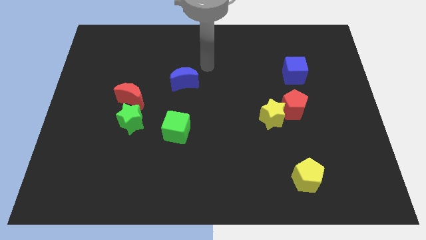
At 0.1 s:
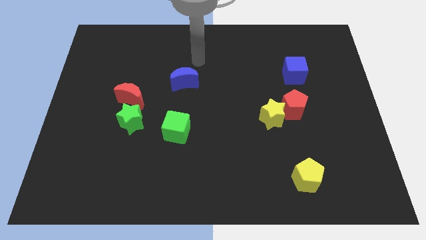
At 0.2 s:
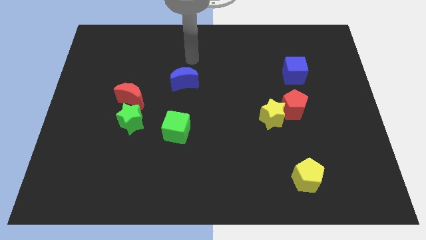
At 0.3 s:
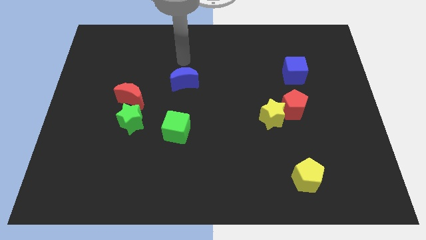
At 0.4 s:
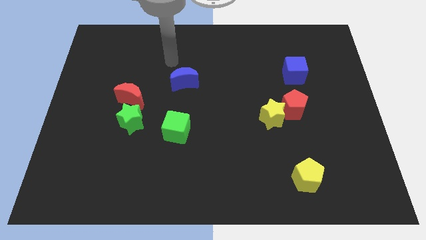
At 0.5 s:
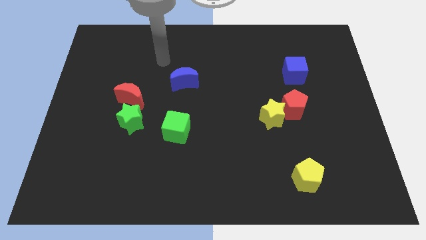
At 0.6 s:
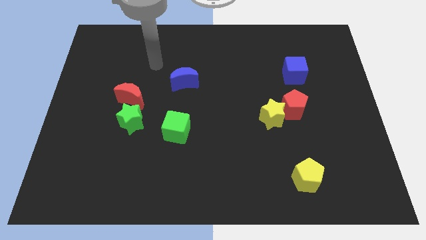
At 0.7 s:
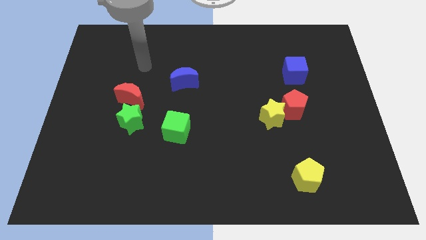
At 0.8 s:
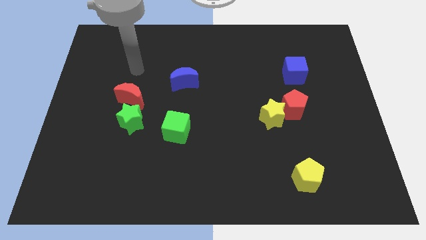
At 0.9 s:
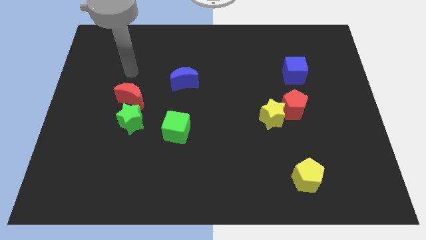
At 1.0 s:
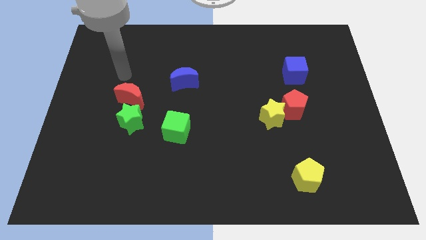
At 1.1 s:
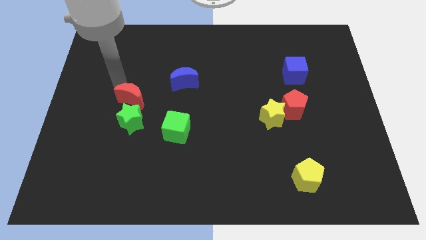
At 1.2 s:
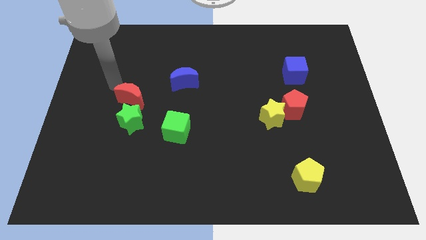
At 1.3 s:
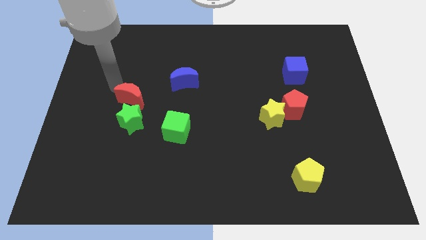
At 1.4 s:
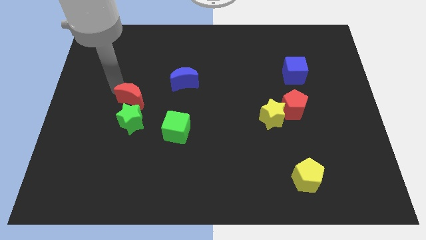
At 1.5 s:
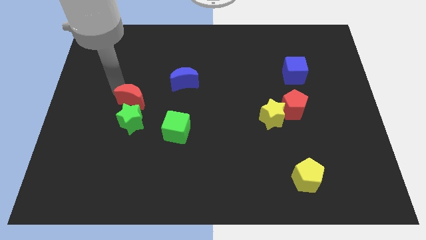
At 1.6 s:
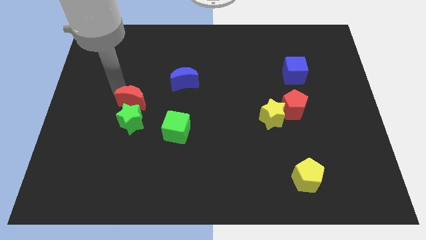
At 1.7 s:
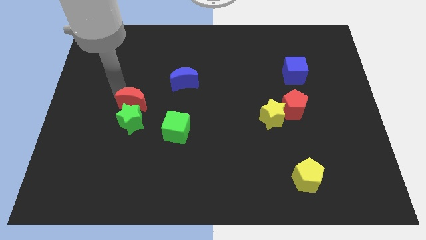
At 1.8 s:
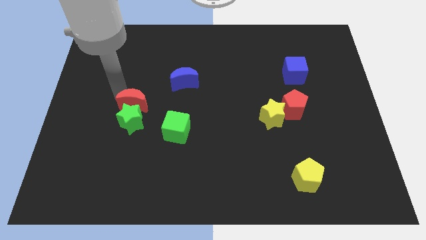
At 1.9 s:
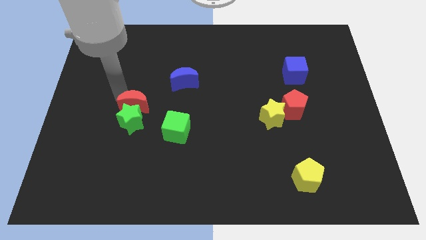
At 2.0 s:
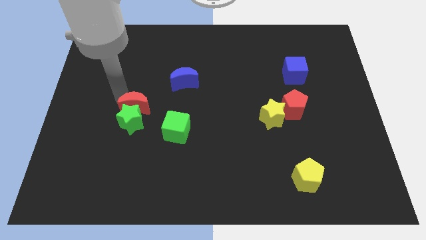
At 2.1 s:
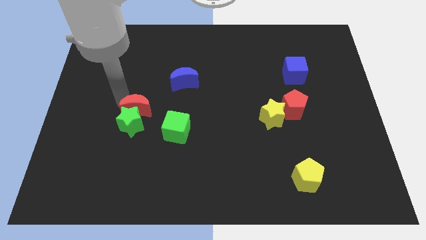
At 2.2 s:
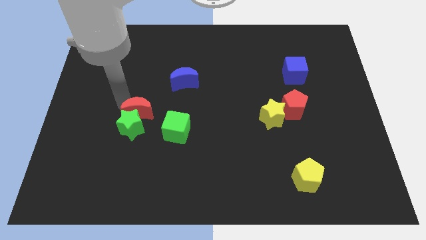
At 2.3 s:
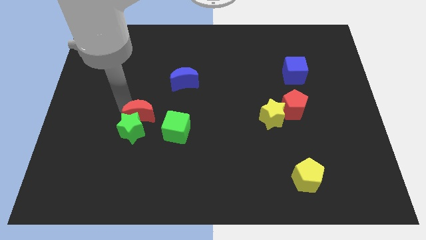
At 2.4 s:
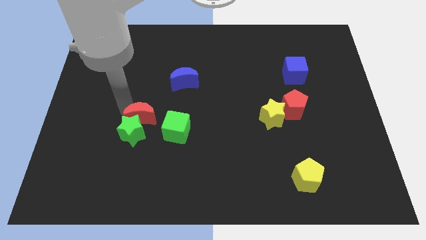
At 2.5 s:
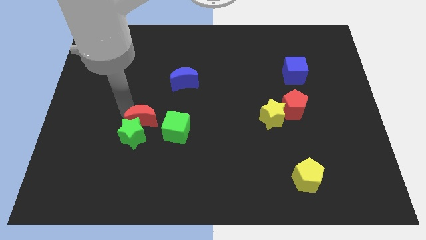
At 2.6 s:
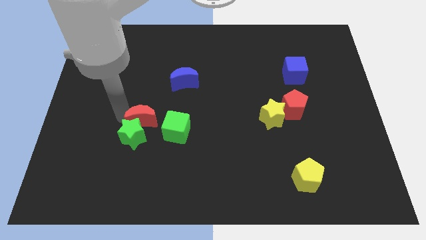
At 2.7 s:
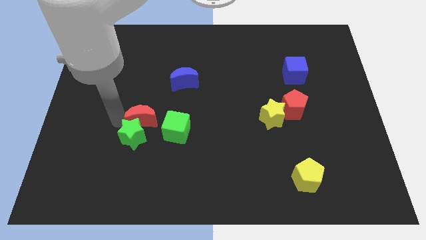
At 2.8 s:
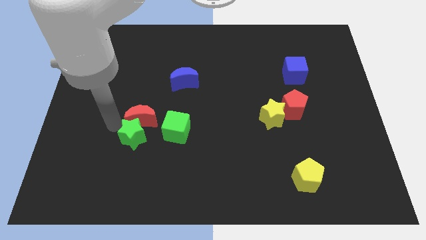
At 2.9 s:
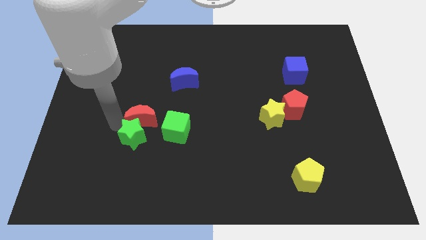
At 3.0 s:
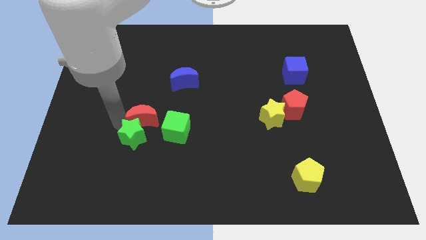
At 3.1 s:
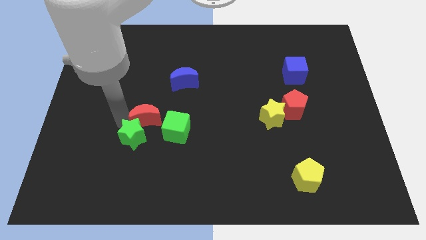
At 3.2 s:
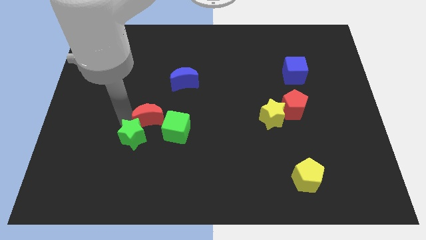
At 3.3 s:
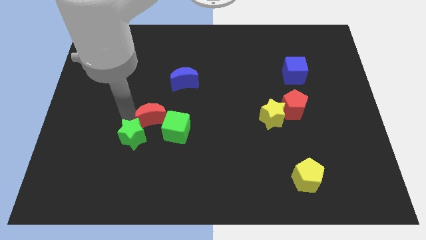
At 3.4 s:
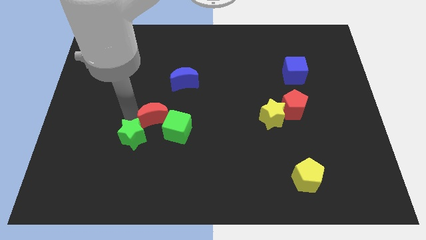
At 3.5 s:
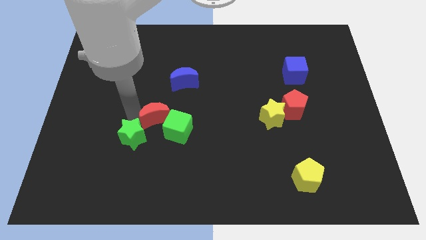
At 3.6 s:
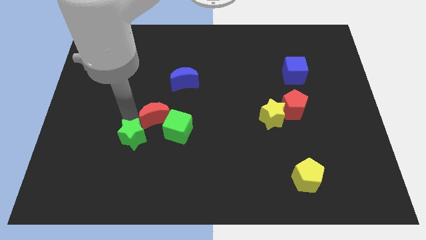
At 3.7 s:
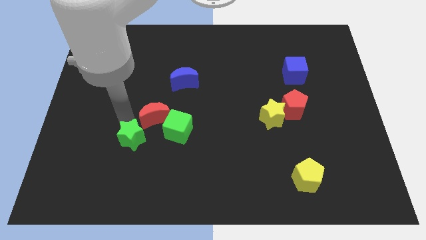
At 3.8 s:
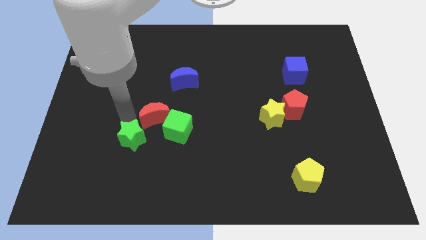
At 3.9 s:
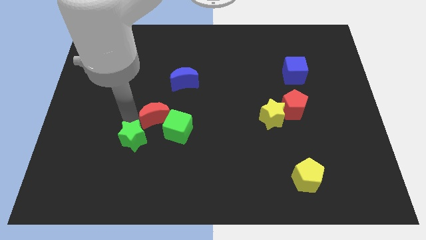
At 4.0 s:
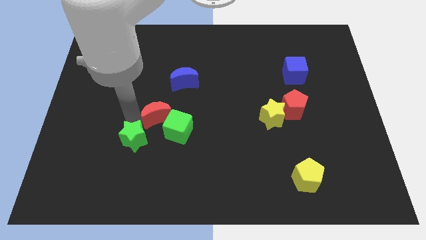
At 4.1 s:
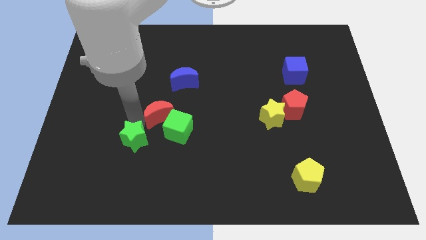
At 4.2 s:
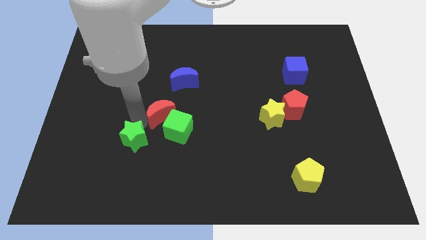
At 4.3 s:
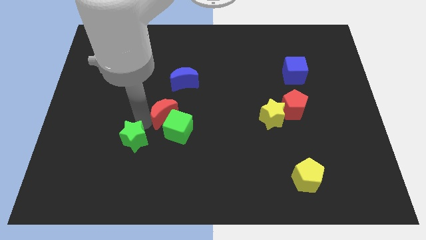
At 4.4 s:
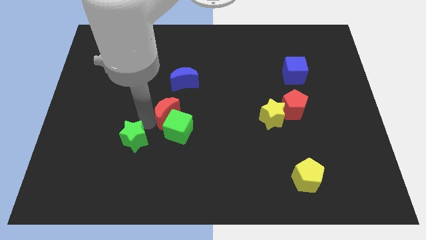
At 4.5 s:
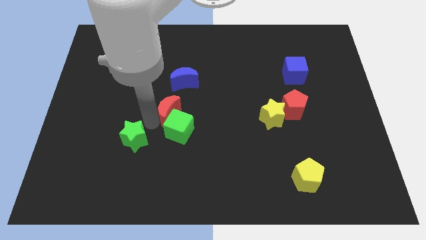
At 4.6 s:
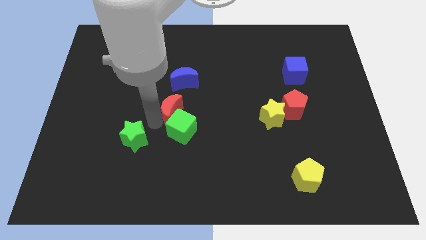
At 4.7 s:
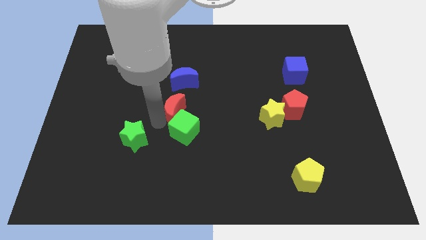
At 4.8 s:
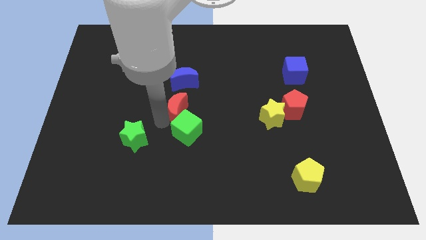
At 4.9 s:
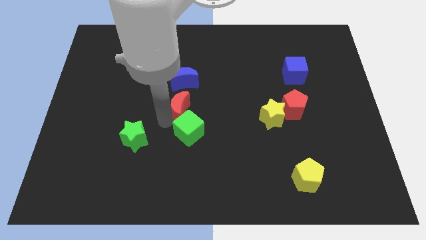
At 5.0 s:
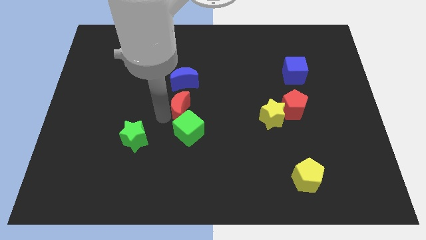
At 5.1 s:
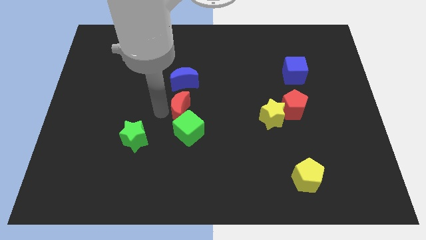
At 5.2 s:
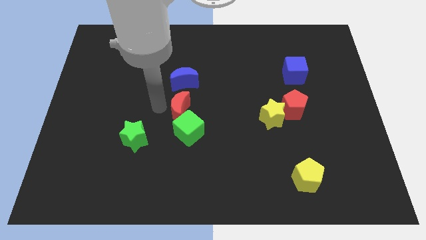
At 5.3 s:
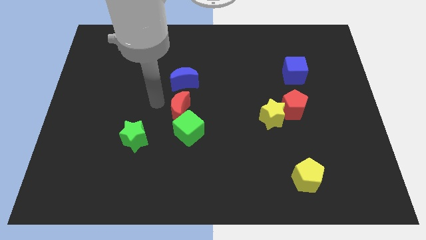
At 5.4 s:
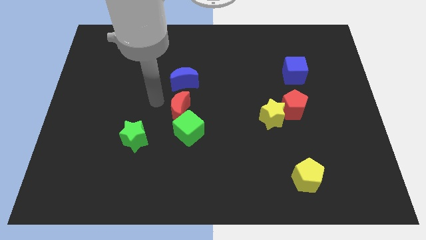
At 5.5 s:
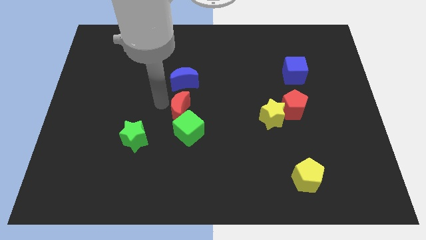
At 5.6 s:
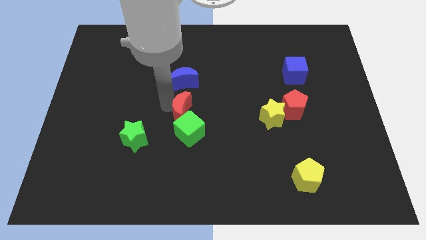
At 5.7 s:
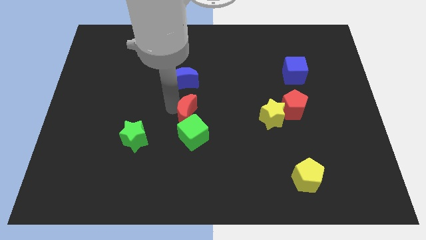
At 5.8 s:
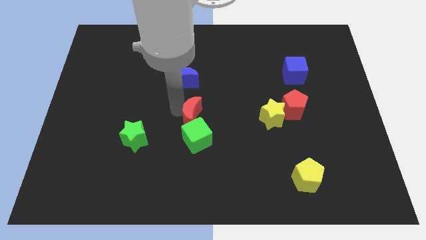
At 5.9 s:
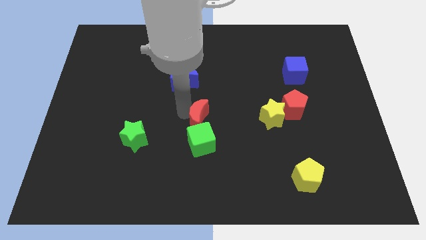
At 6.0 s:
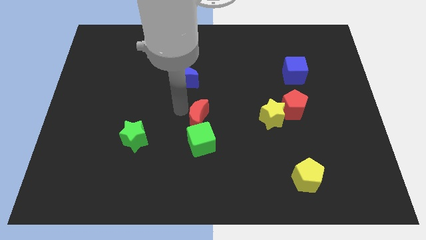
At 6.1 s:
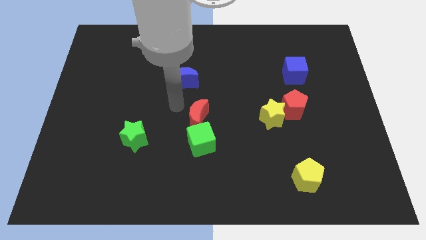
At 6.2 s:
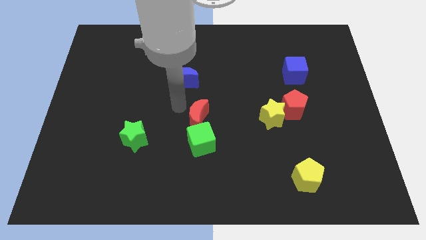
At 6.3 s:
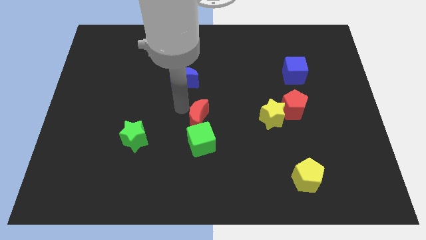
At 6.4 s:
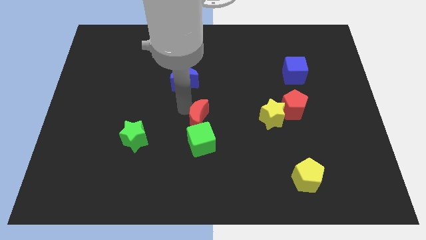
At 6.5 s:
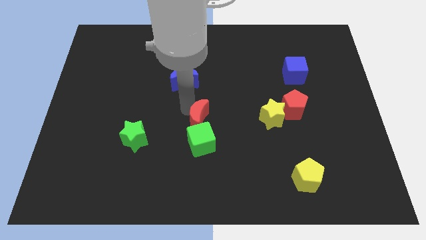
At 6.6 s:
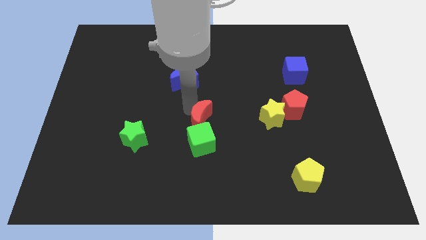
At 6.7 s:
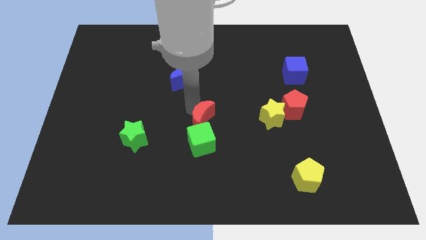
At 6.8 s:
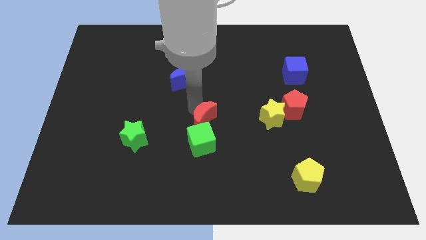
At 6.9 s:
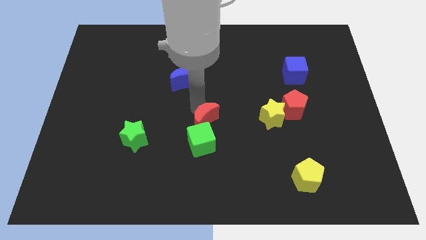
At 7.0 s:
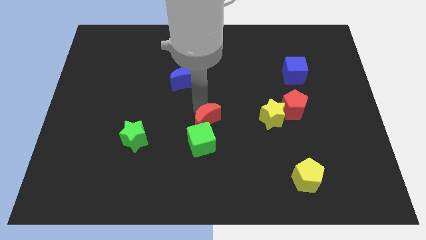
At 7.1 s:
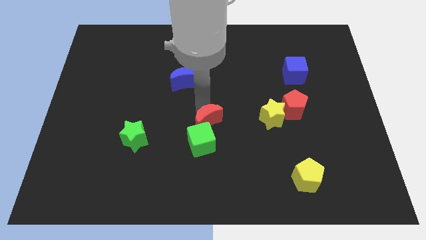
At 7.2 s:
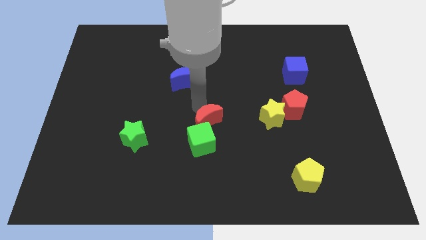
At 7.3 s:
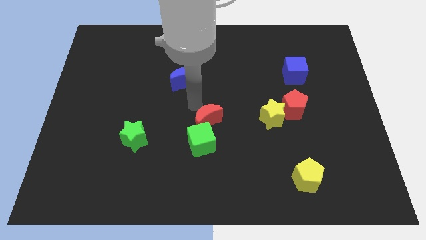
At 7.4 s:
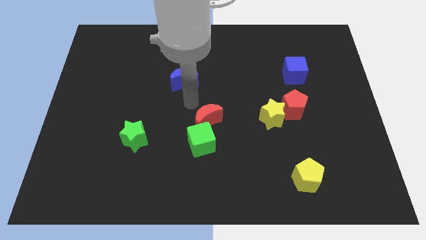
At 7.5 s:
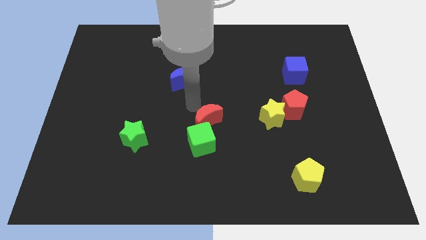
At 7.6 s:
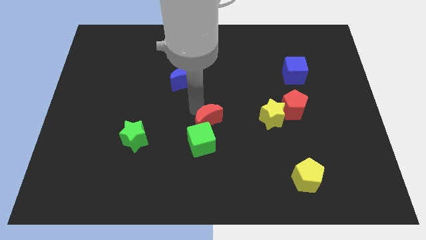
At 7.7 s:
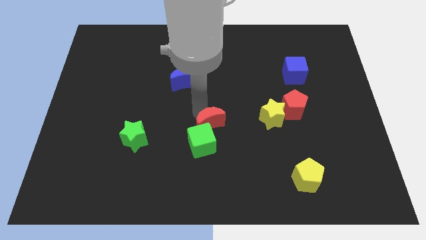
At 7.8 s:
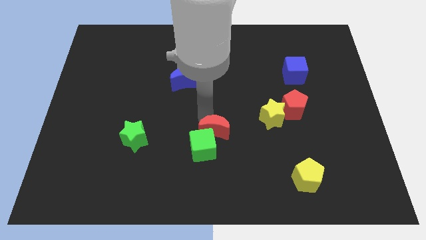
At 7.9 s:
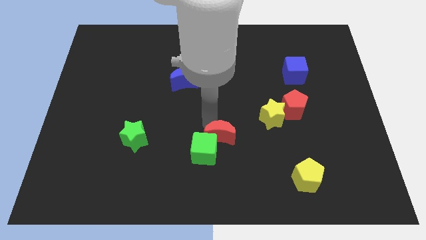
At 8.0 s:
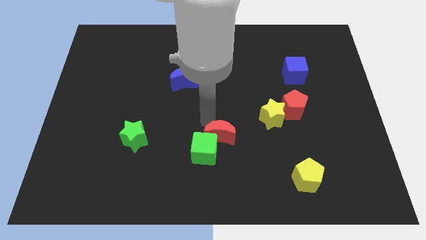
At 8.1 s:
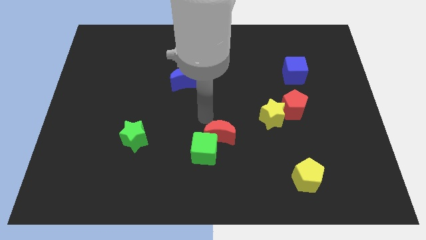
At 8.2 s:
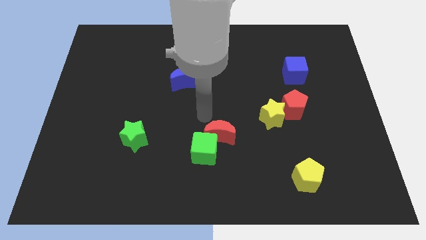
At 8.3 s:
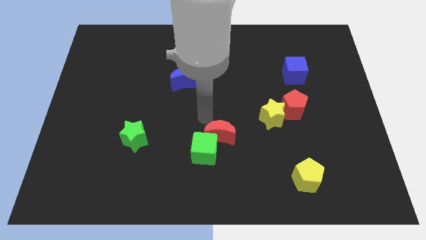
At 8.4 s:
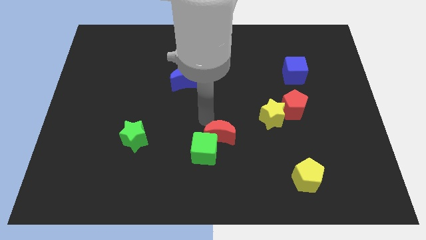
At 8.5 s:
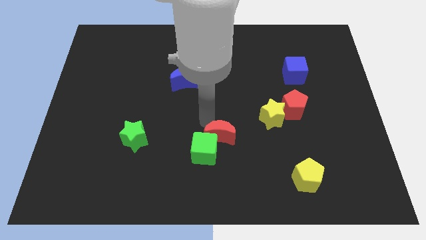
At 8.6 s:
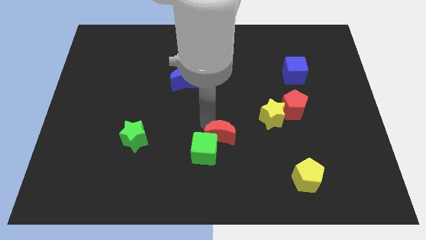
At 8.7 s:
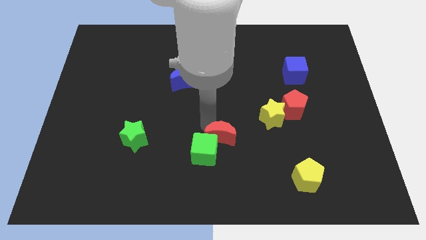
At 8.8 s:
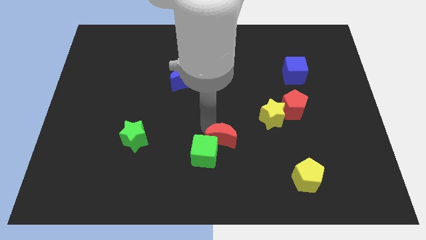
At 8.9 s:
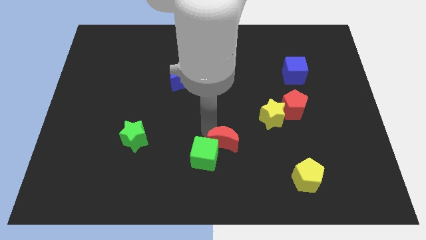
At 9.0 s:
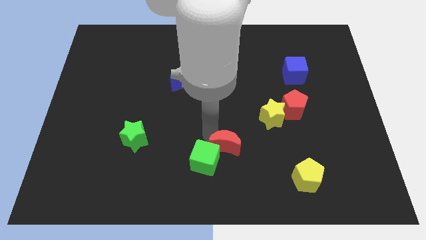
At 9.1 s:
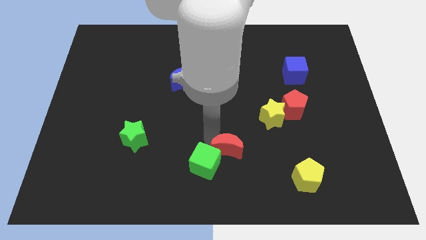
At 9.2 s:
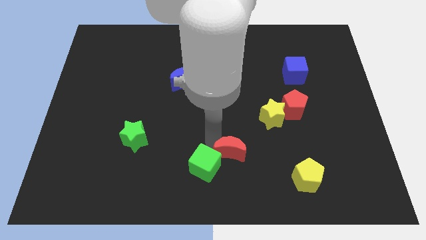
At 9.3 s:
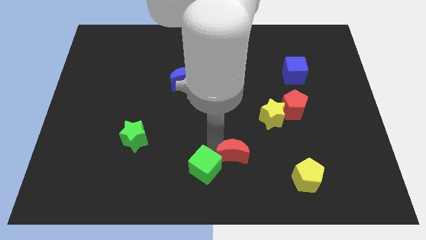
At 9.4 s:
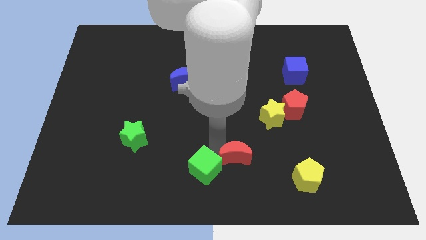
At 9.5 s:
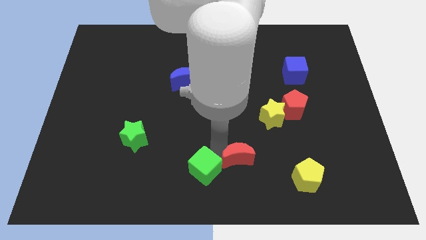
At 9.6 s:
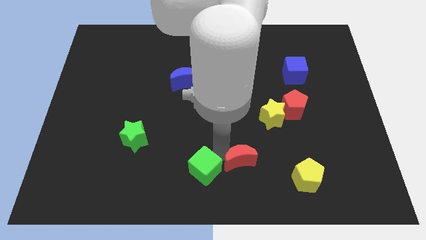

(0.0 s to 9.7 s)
slide the red moon to the left of the yellow pentagon
